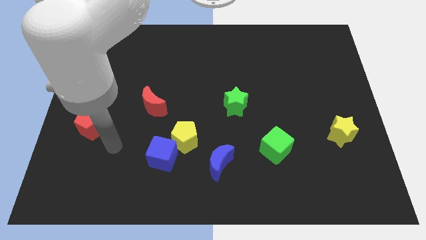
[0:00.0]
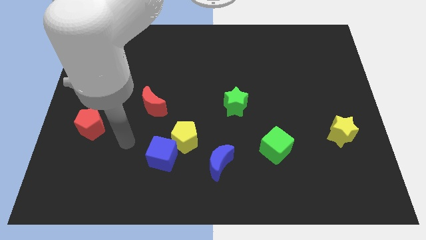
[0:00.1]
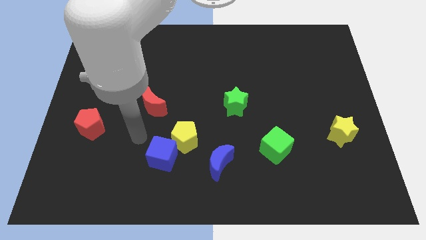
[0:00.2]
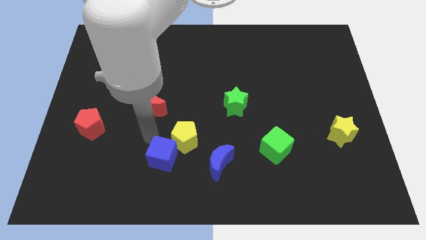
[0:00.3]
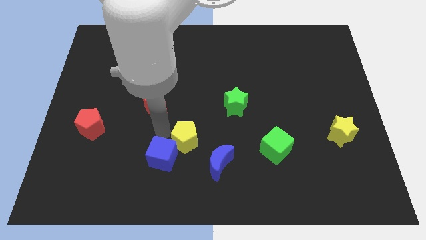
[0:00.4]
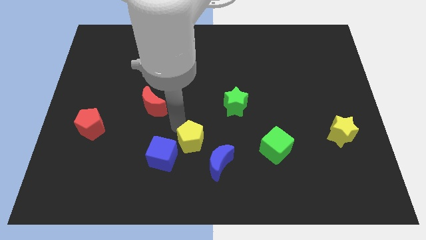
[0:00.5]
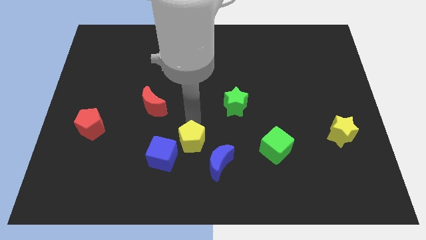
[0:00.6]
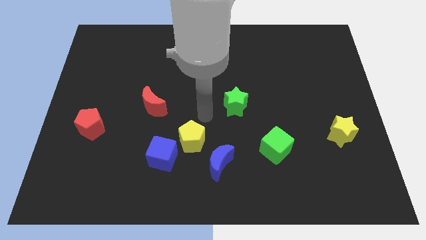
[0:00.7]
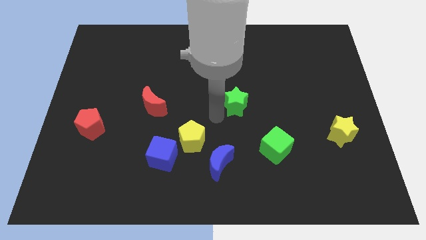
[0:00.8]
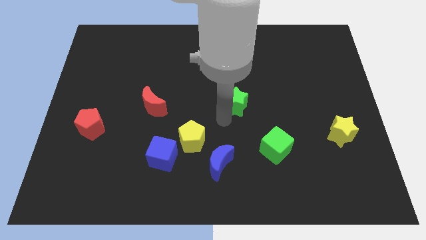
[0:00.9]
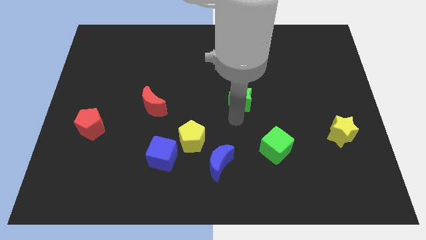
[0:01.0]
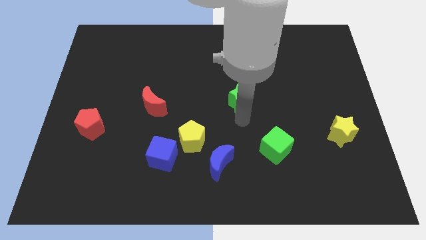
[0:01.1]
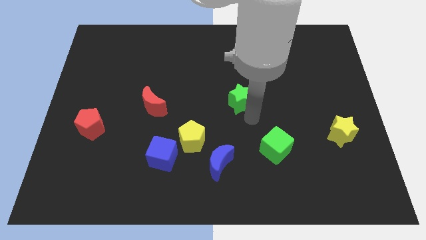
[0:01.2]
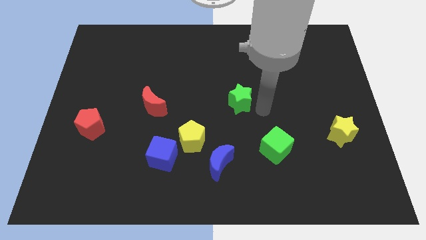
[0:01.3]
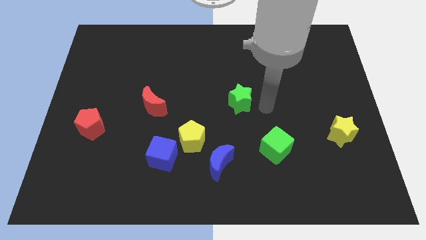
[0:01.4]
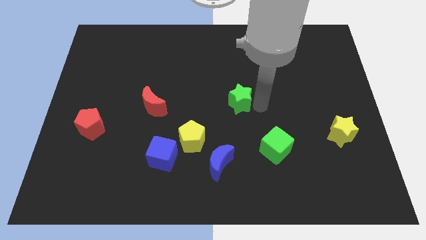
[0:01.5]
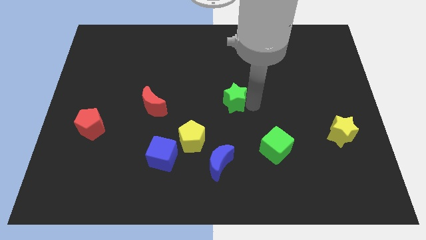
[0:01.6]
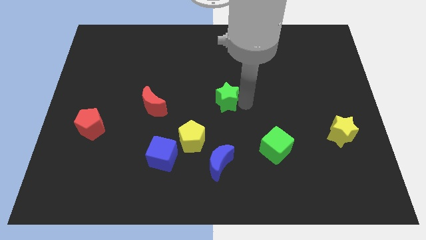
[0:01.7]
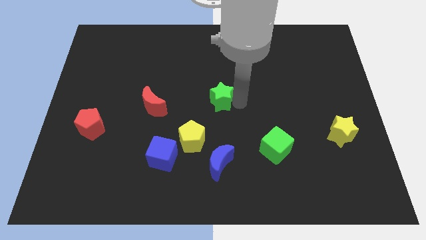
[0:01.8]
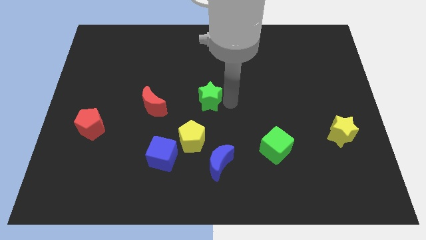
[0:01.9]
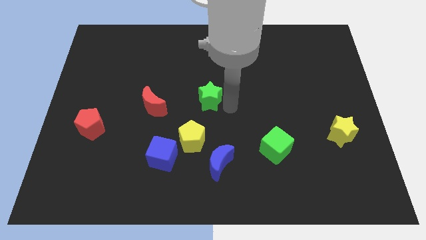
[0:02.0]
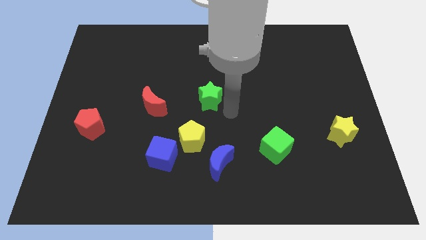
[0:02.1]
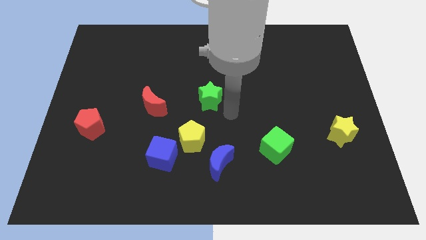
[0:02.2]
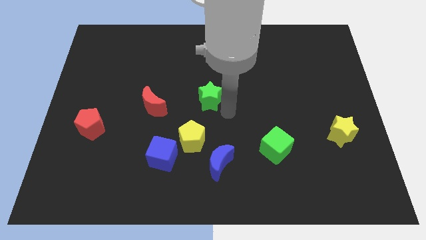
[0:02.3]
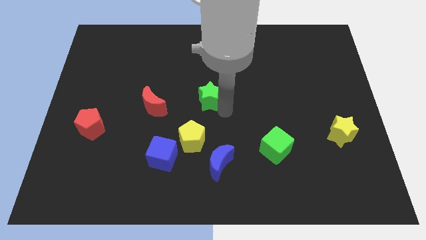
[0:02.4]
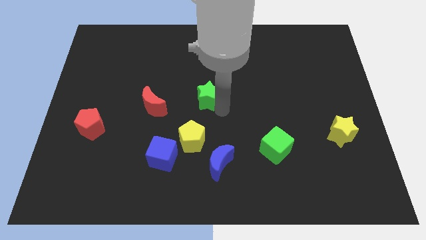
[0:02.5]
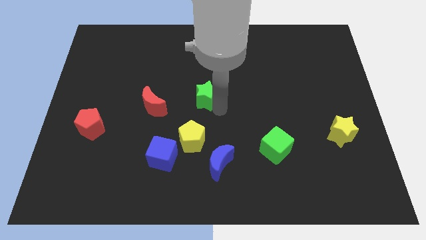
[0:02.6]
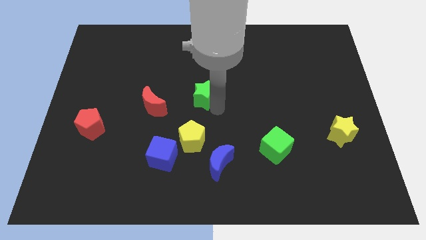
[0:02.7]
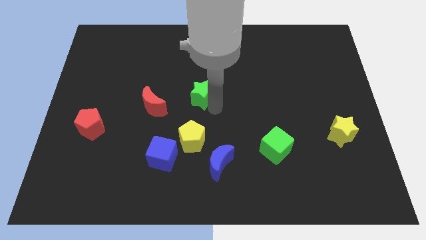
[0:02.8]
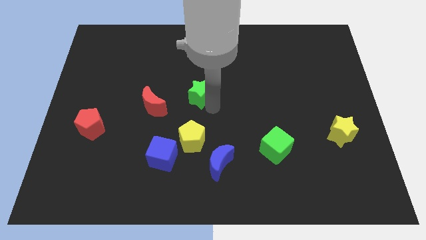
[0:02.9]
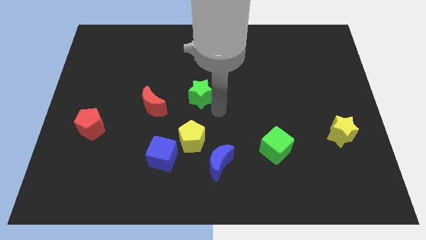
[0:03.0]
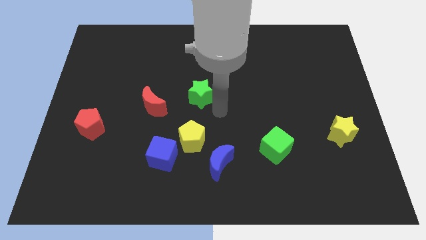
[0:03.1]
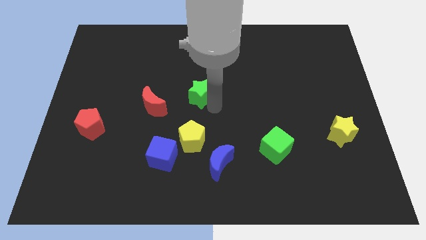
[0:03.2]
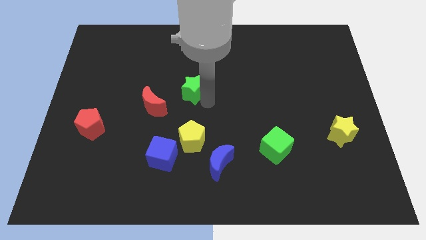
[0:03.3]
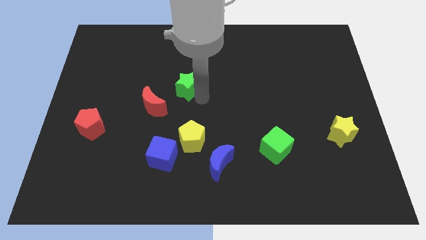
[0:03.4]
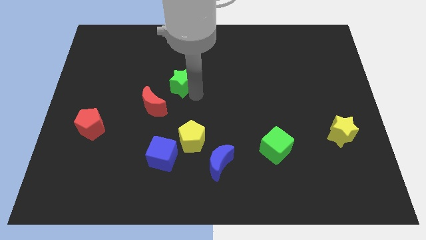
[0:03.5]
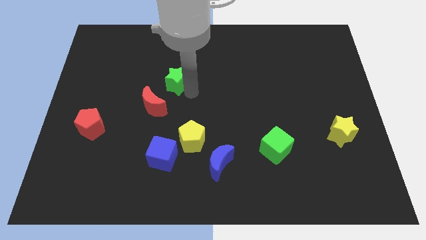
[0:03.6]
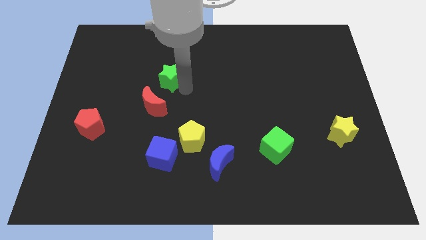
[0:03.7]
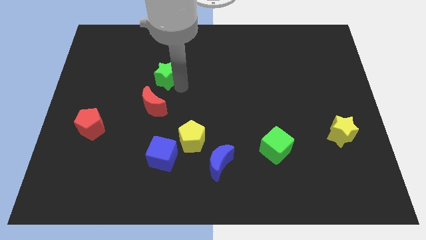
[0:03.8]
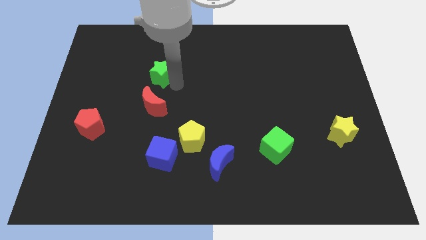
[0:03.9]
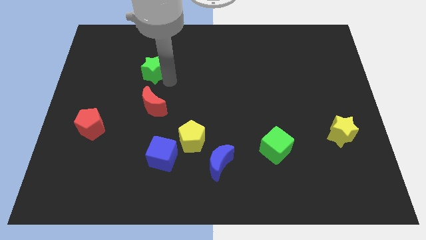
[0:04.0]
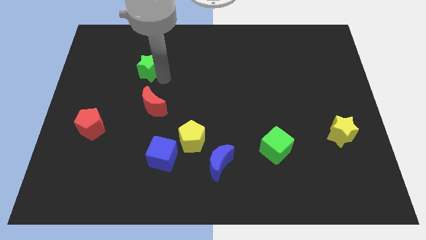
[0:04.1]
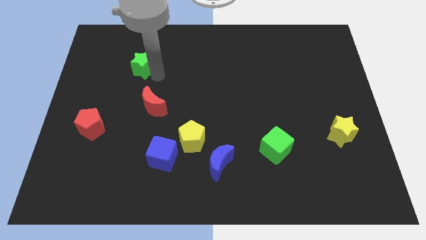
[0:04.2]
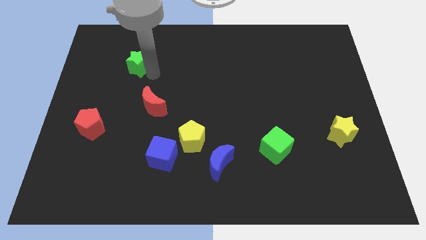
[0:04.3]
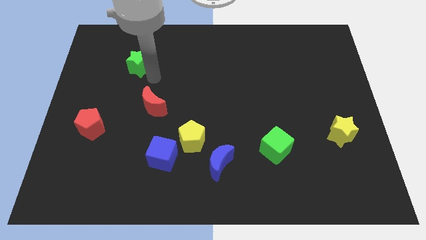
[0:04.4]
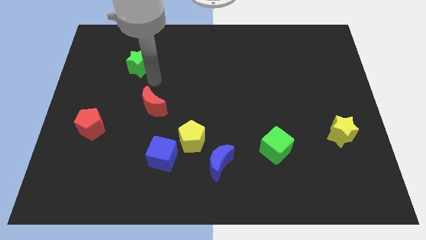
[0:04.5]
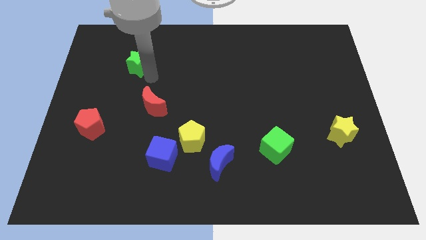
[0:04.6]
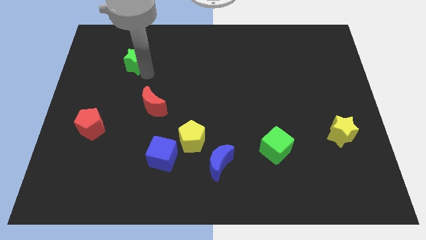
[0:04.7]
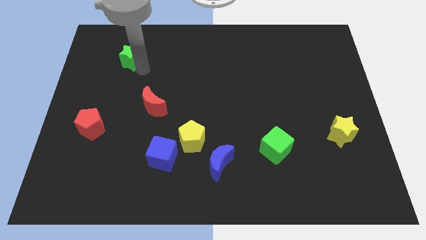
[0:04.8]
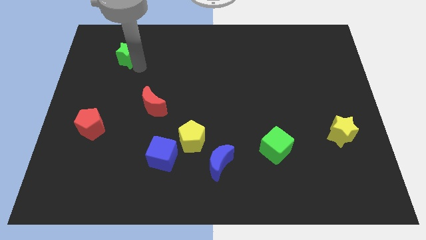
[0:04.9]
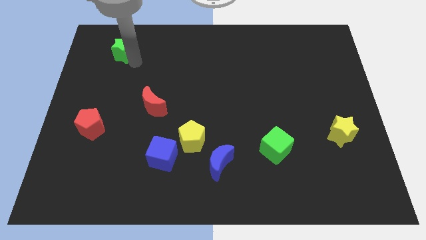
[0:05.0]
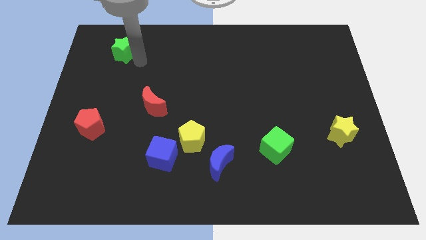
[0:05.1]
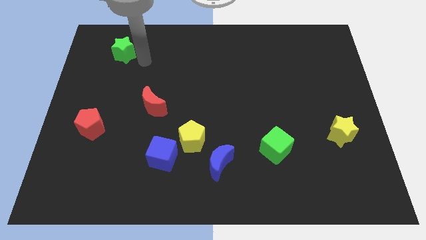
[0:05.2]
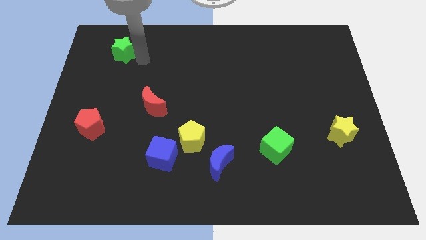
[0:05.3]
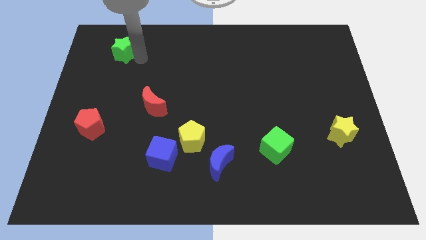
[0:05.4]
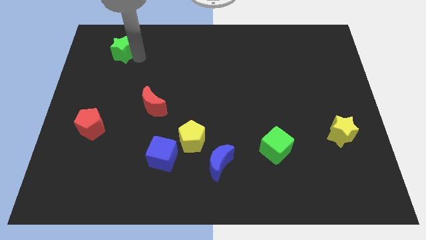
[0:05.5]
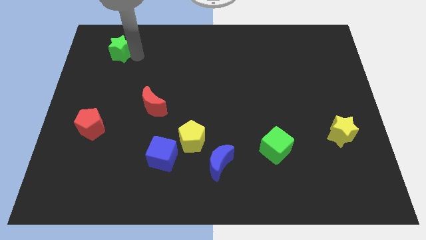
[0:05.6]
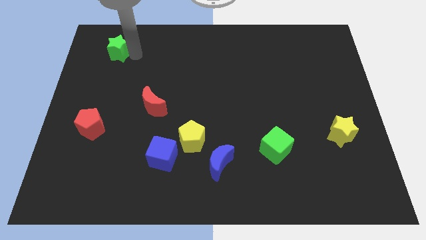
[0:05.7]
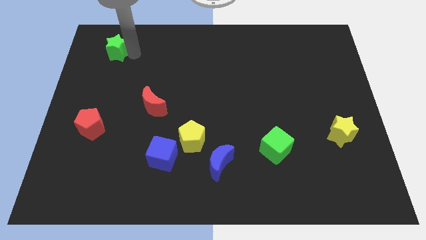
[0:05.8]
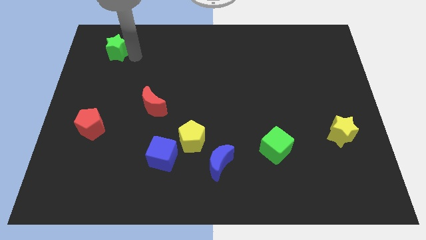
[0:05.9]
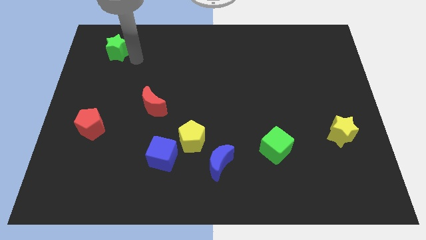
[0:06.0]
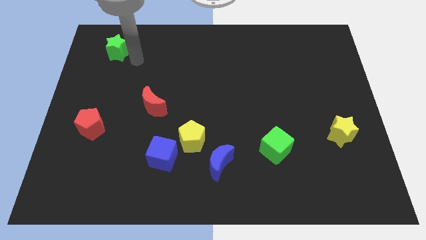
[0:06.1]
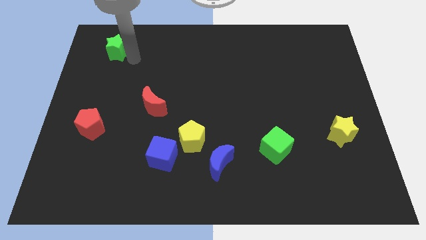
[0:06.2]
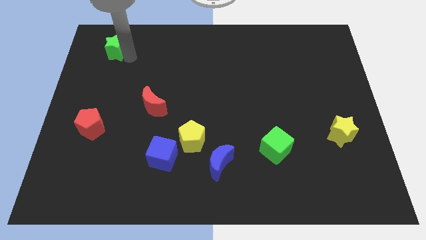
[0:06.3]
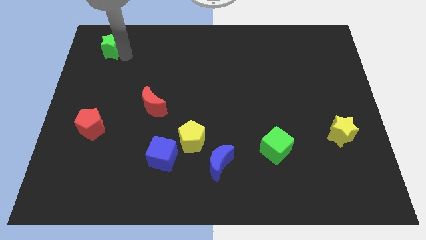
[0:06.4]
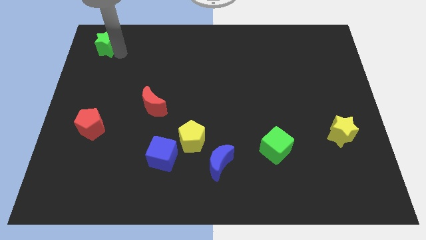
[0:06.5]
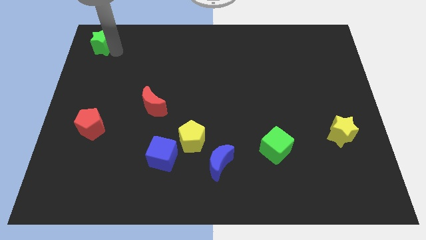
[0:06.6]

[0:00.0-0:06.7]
push the green star to the upper left corner
